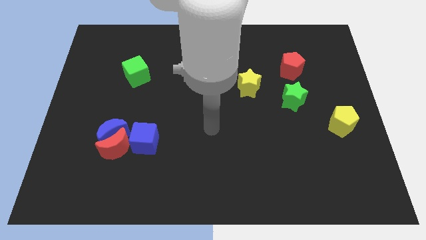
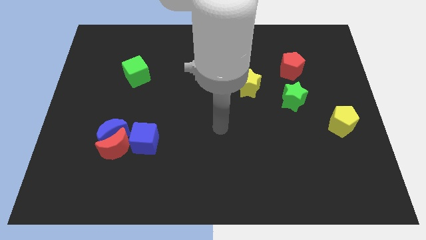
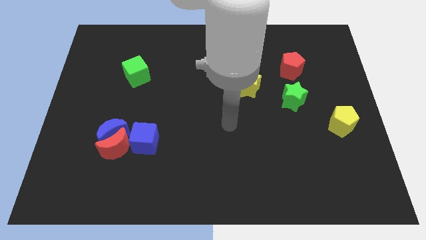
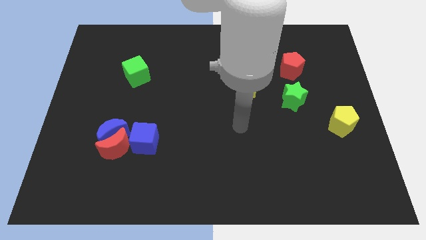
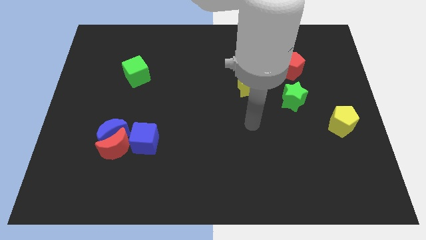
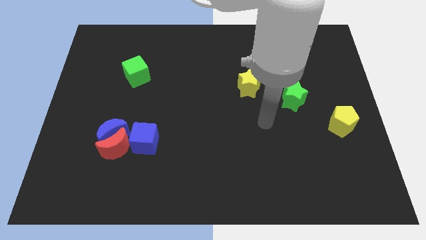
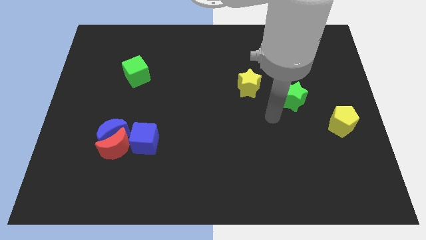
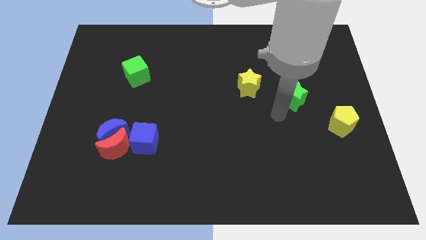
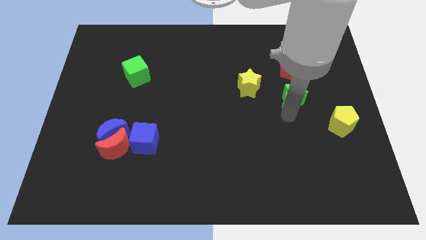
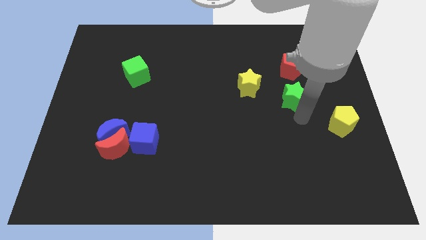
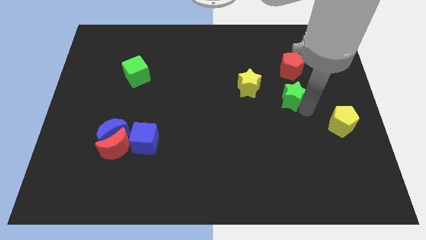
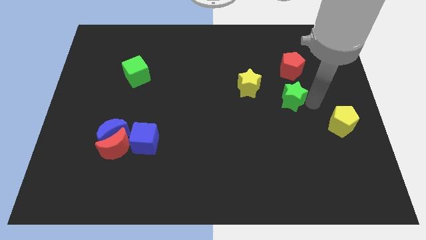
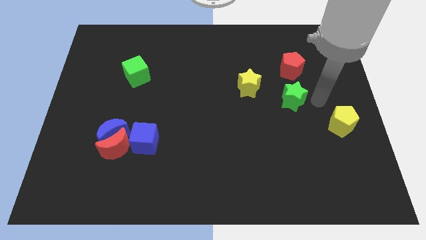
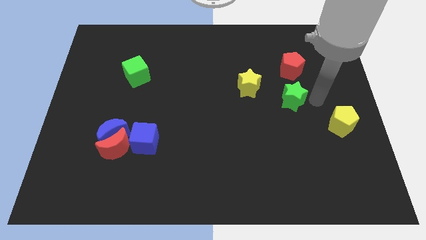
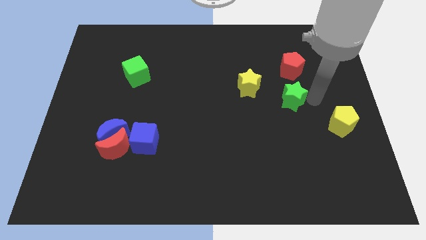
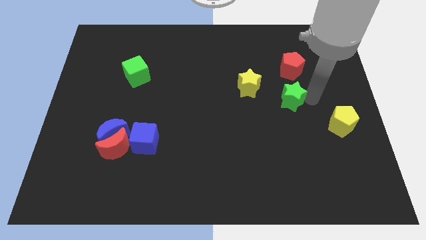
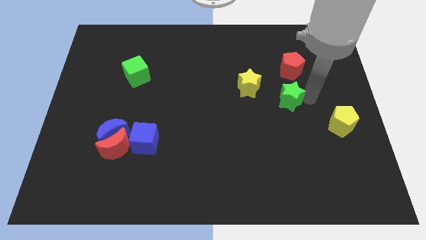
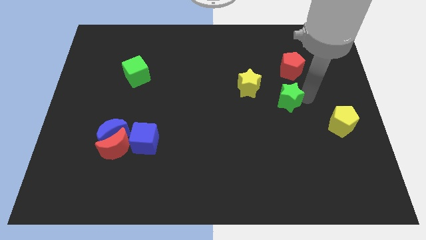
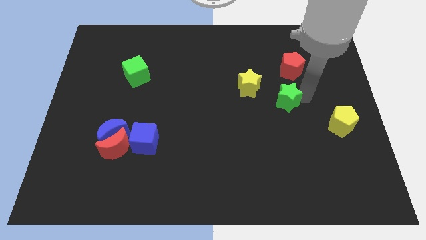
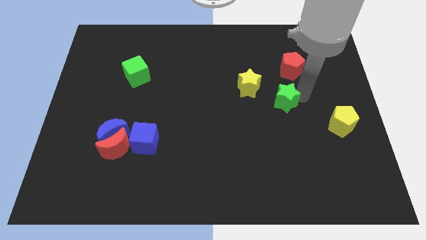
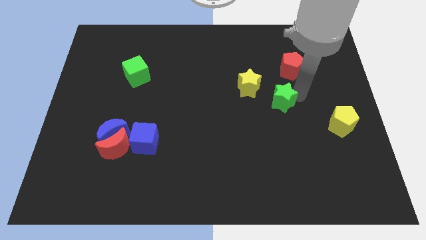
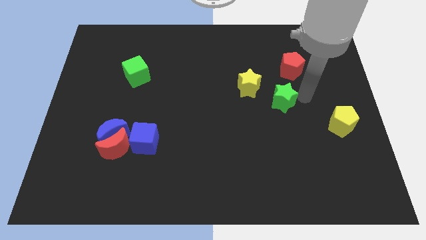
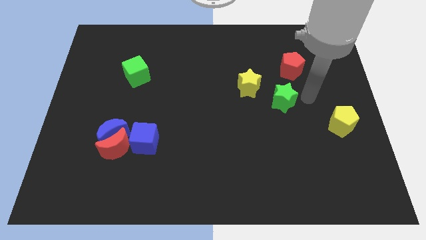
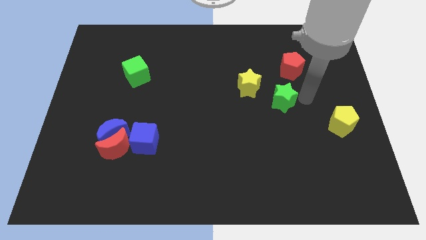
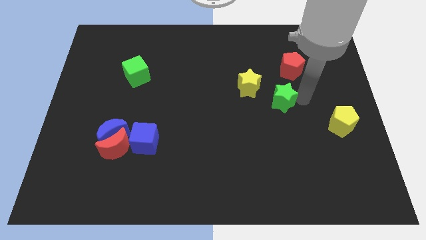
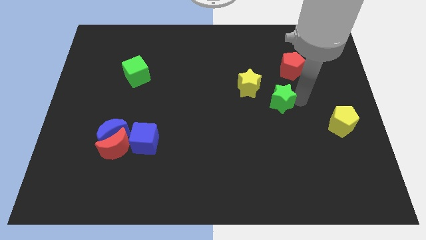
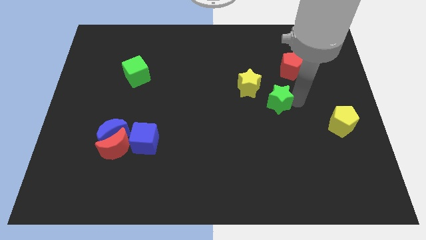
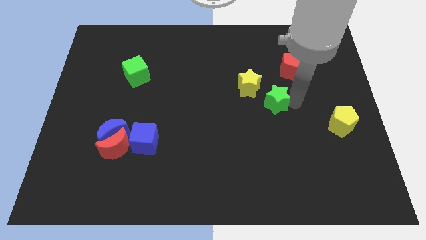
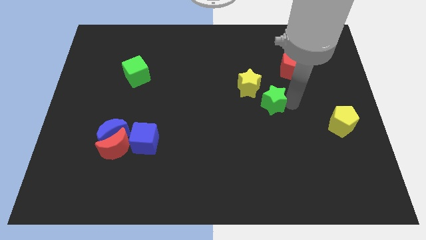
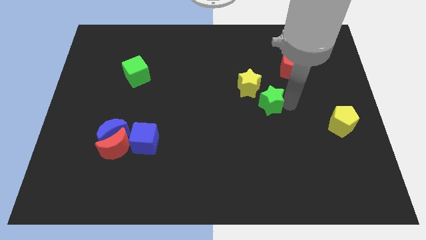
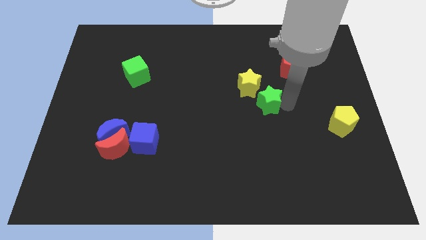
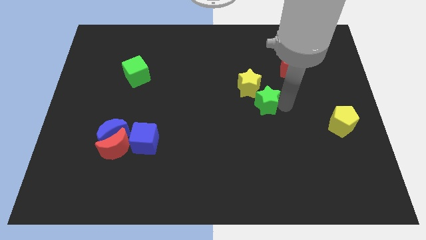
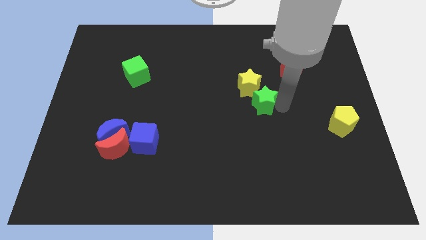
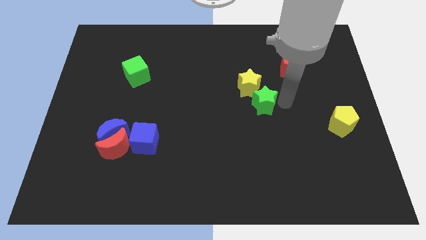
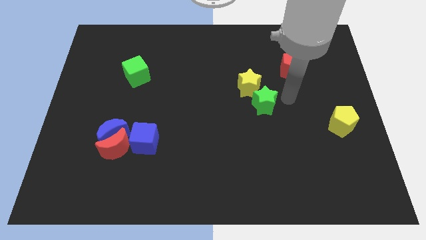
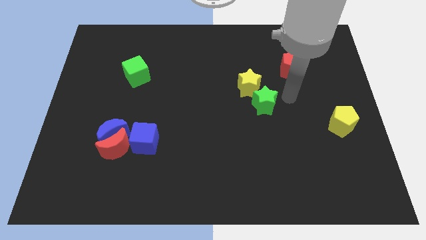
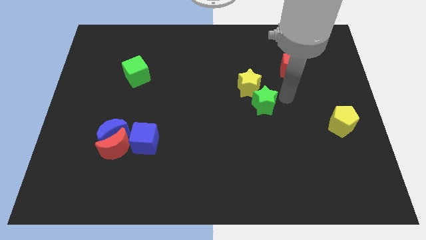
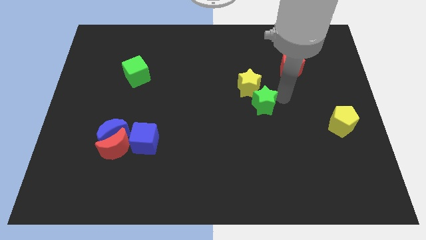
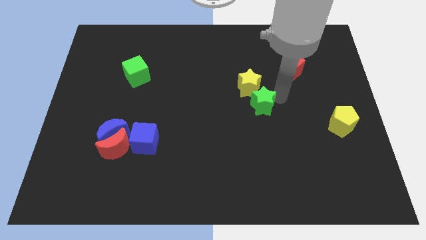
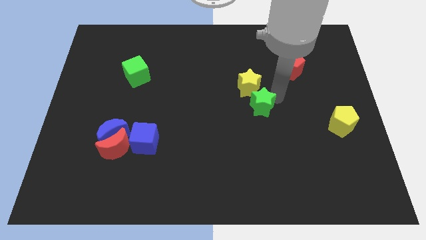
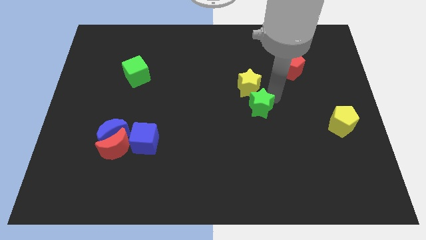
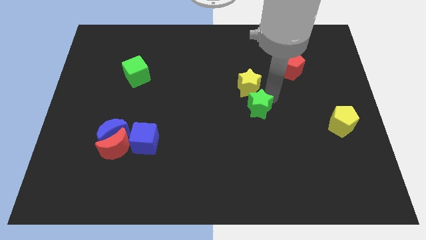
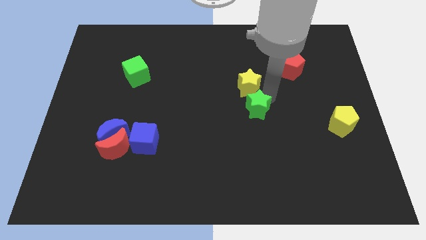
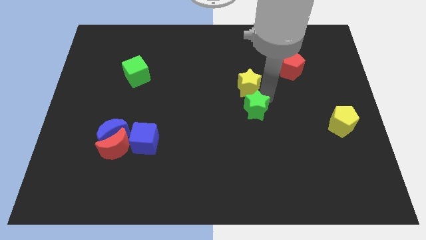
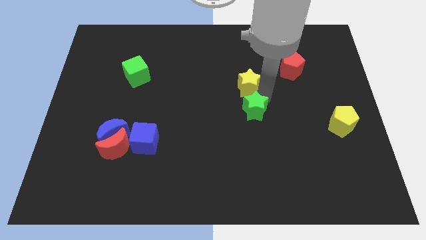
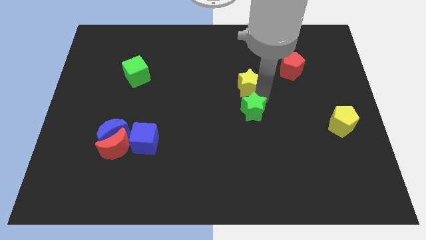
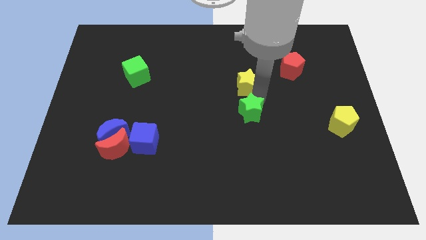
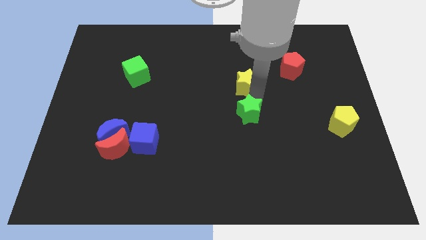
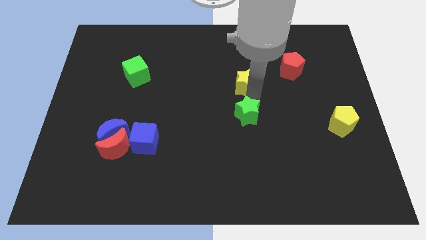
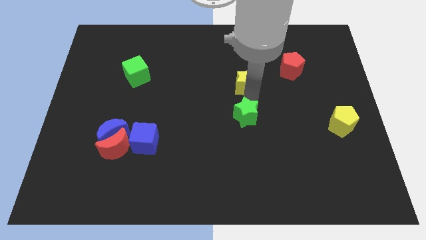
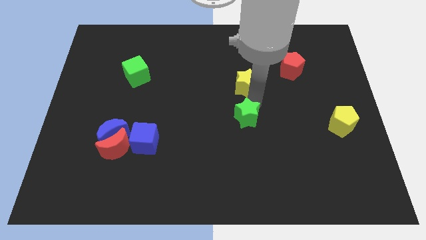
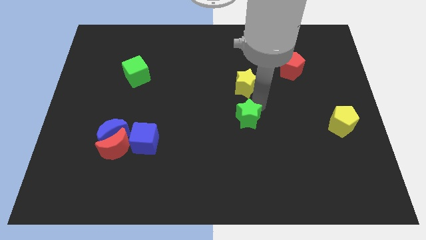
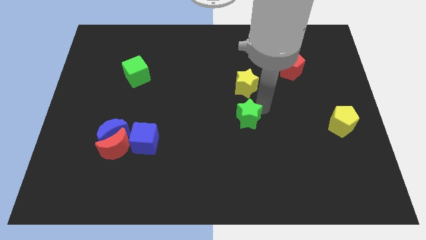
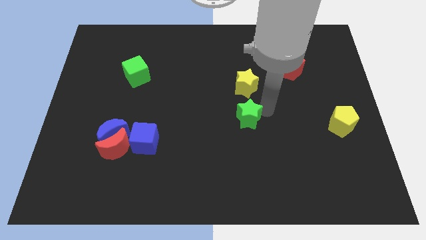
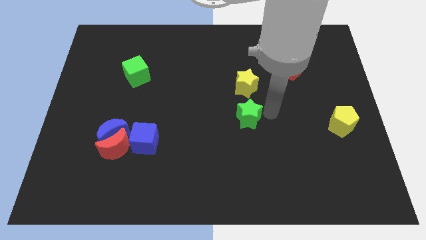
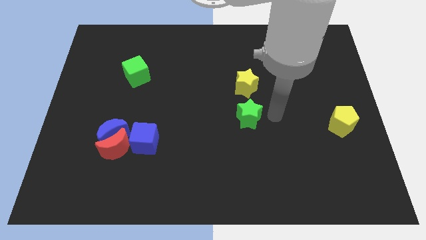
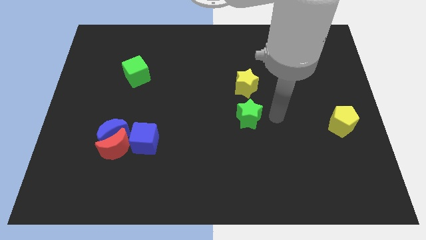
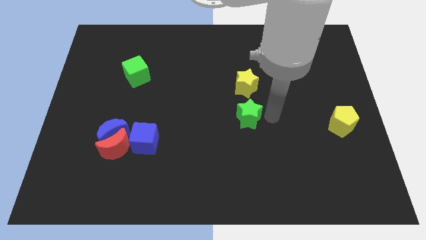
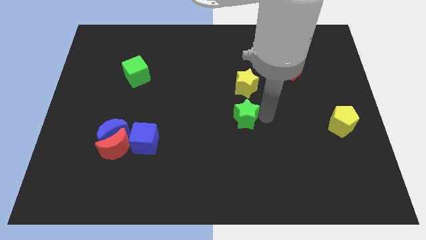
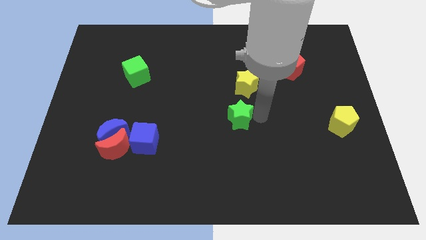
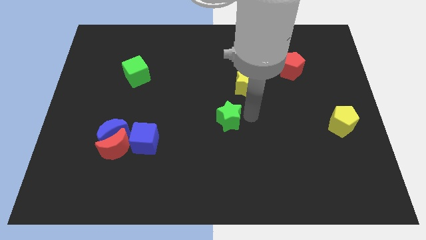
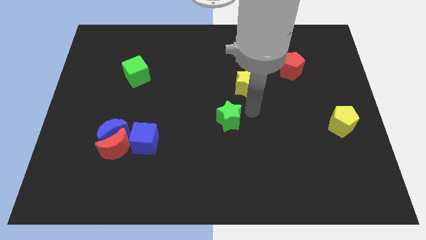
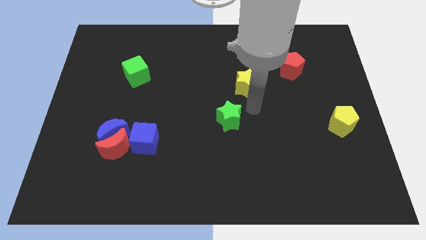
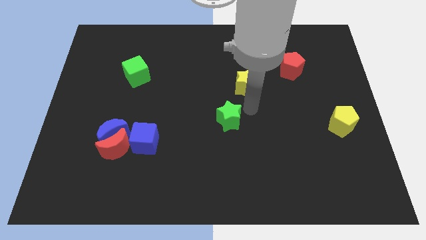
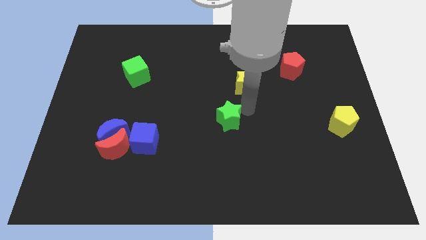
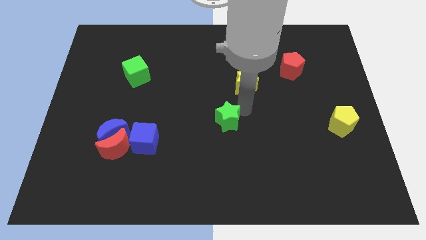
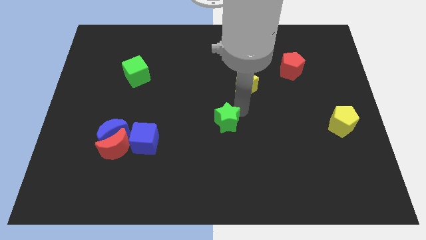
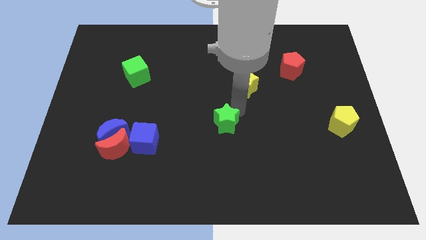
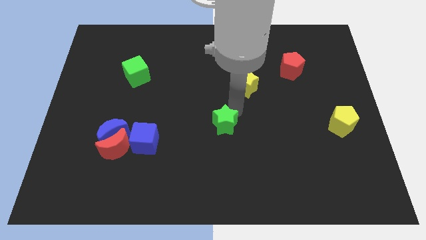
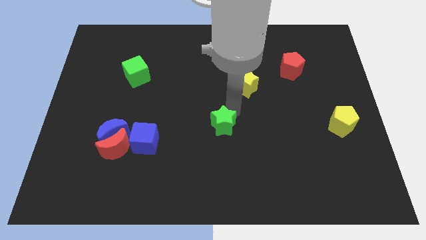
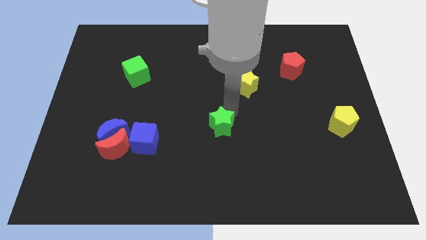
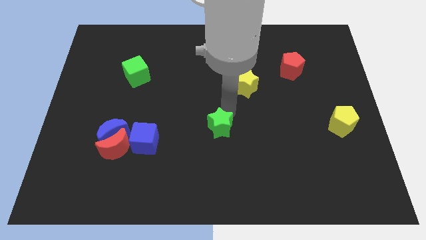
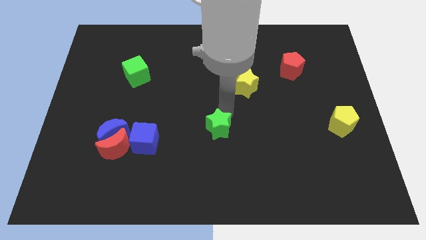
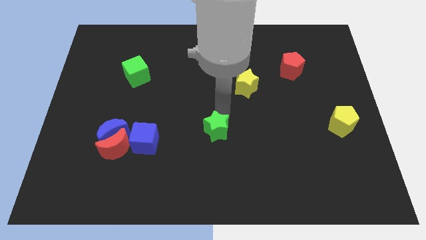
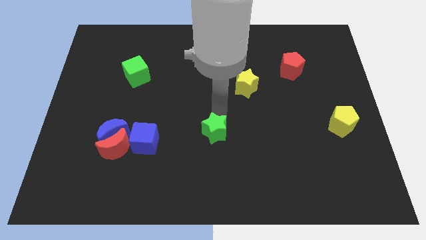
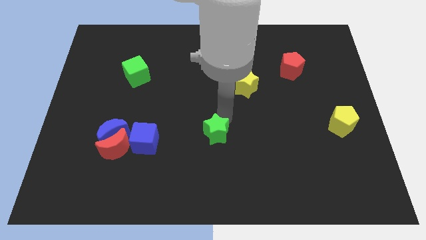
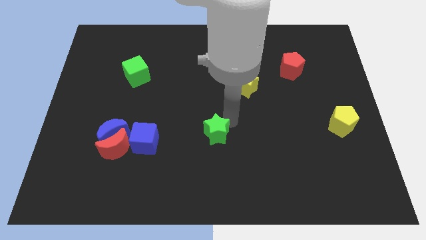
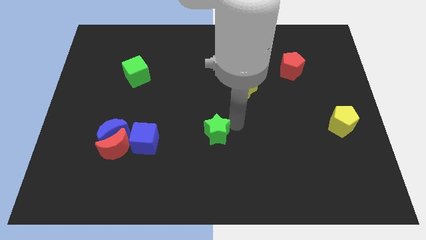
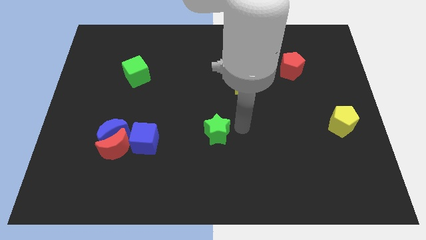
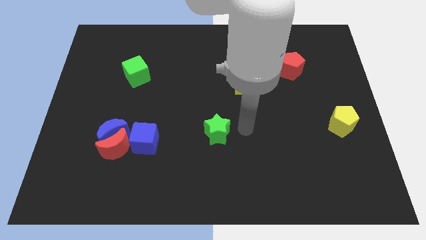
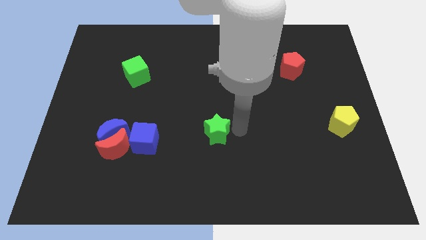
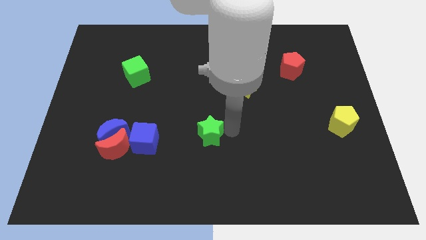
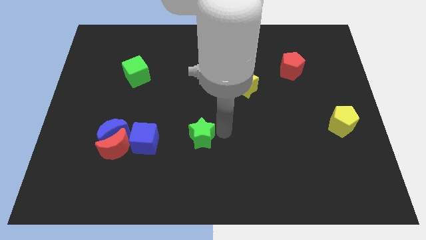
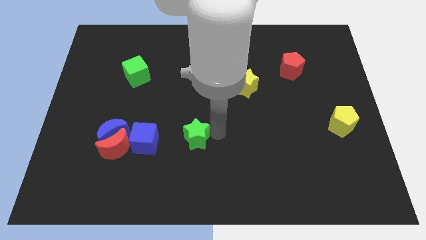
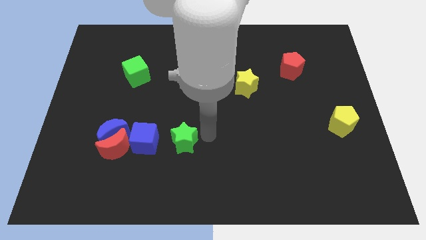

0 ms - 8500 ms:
slide the green star to the right side of the blue moon
